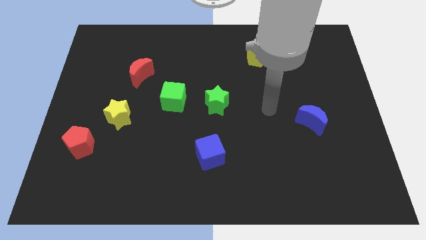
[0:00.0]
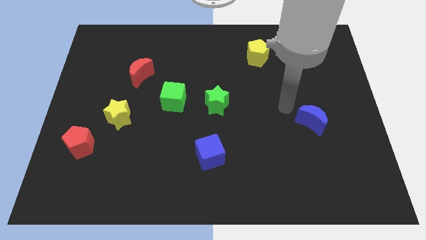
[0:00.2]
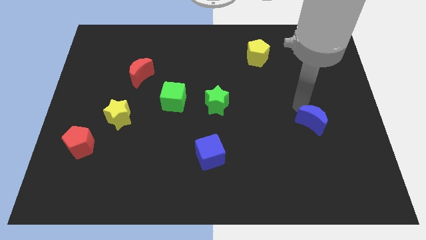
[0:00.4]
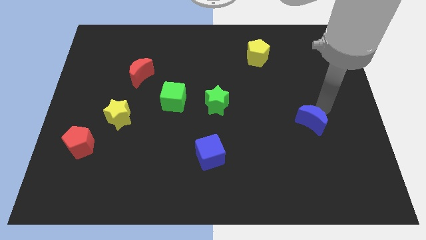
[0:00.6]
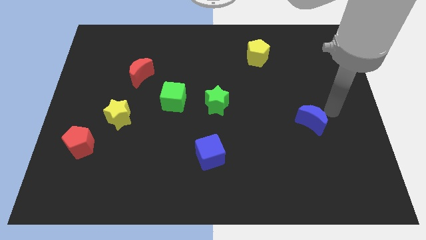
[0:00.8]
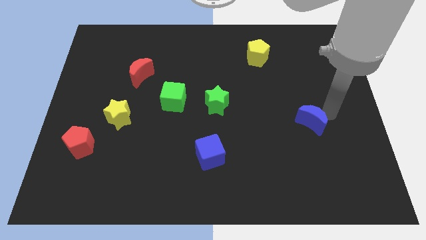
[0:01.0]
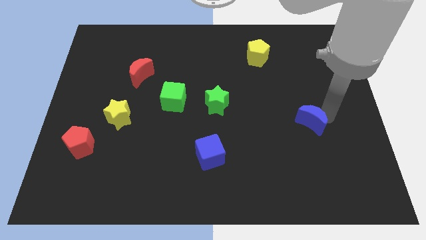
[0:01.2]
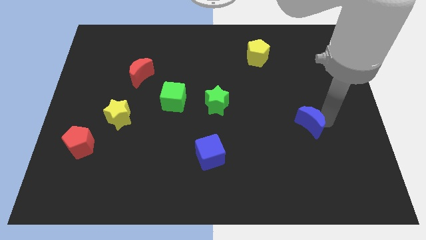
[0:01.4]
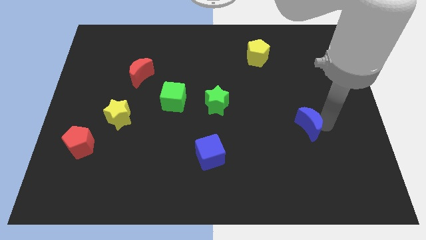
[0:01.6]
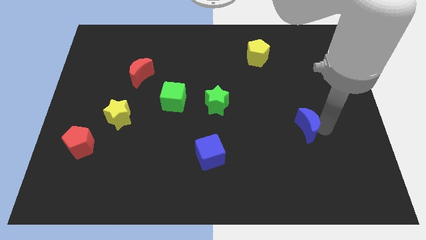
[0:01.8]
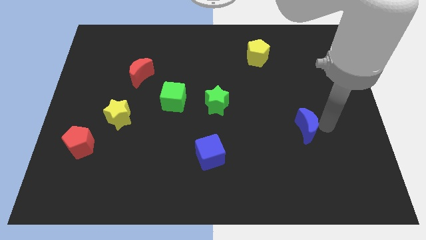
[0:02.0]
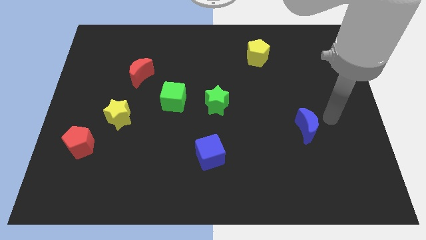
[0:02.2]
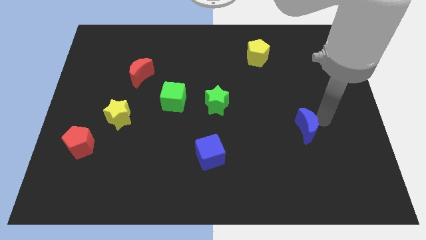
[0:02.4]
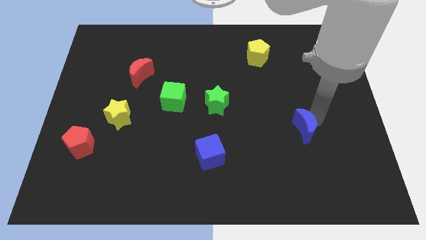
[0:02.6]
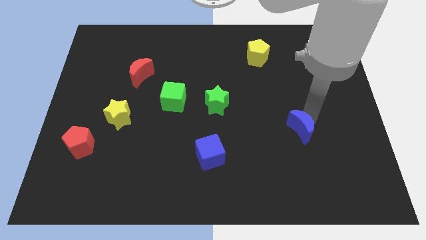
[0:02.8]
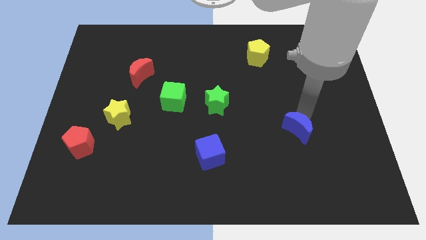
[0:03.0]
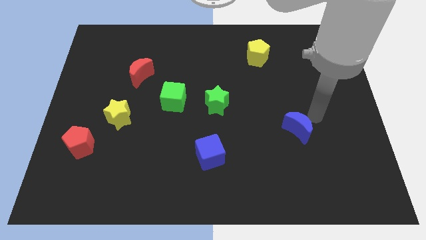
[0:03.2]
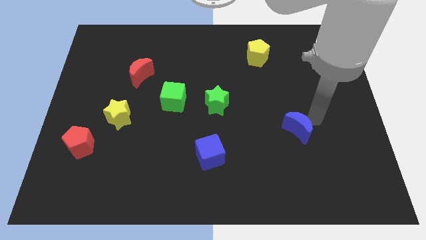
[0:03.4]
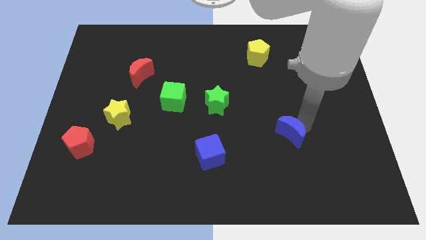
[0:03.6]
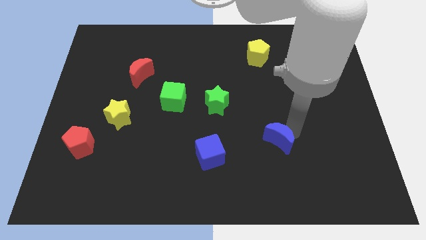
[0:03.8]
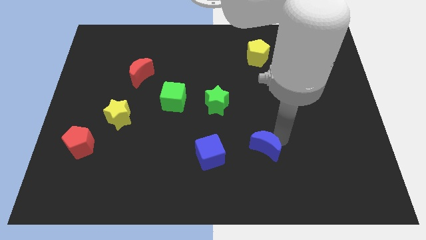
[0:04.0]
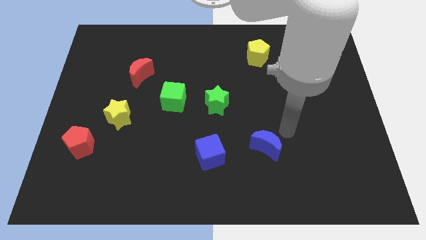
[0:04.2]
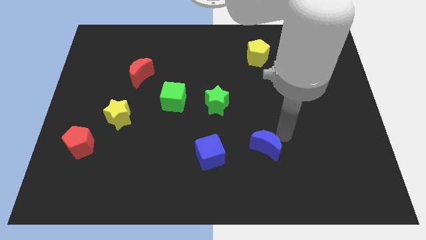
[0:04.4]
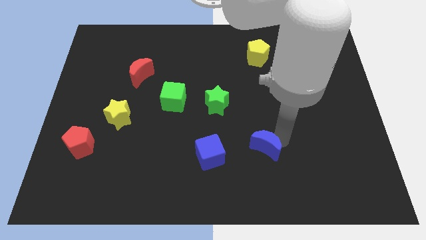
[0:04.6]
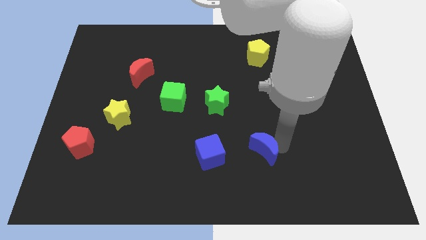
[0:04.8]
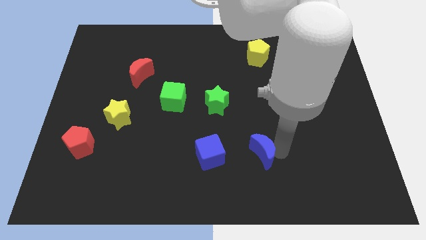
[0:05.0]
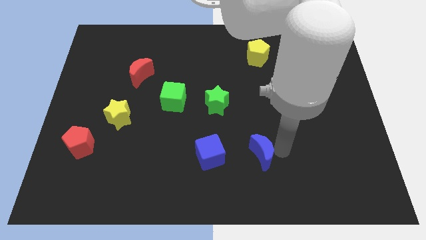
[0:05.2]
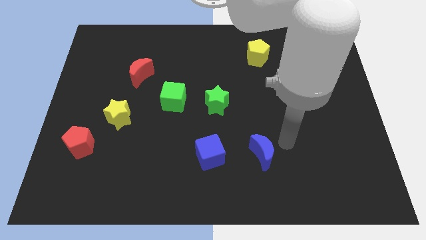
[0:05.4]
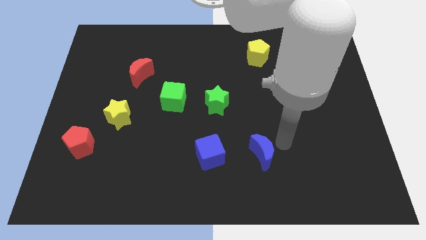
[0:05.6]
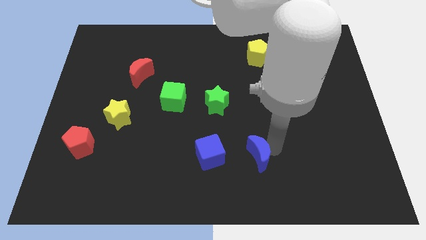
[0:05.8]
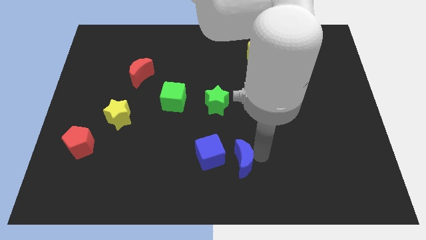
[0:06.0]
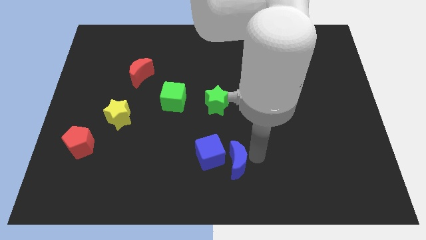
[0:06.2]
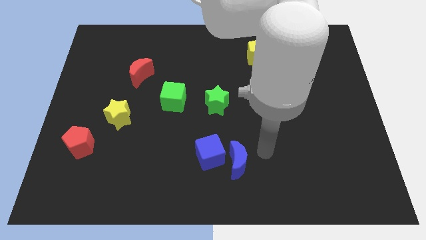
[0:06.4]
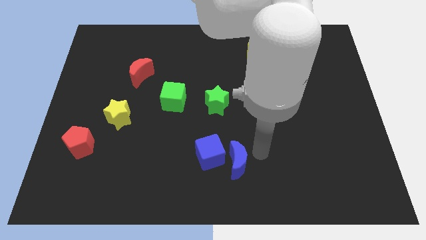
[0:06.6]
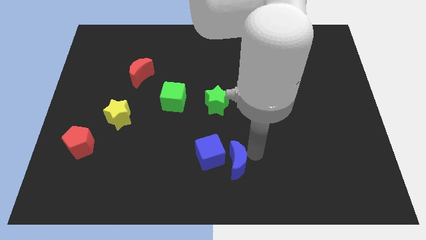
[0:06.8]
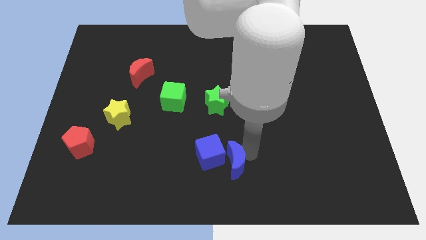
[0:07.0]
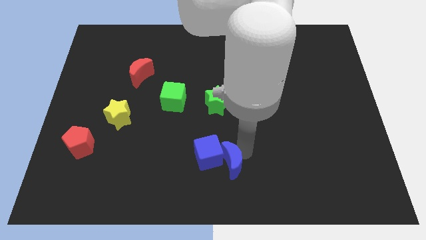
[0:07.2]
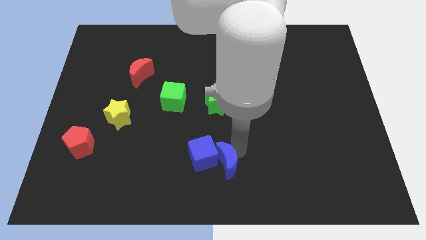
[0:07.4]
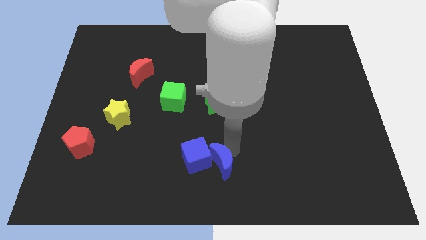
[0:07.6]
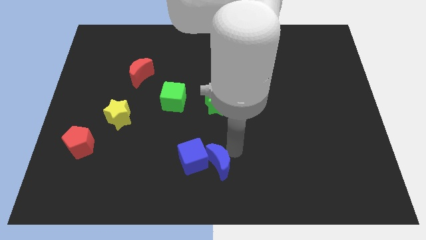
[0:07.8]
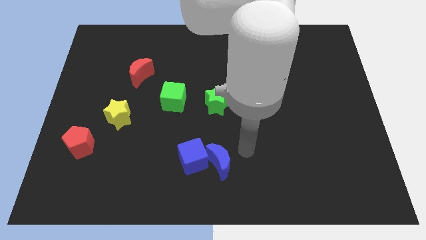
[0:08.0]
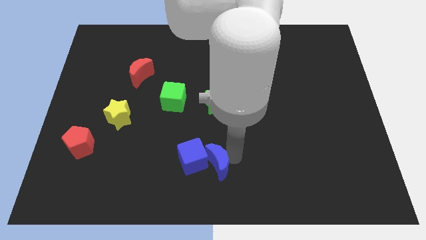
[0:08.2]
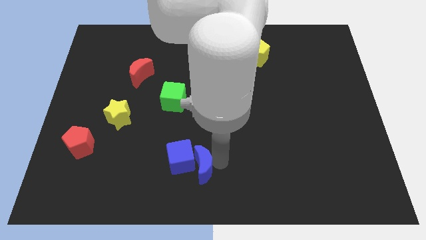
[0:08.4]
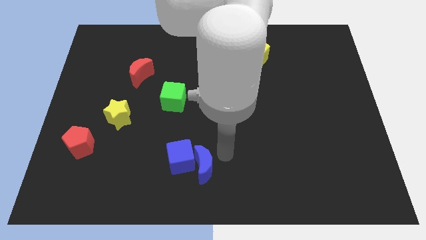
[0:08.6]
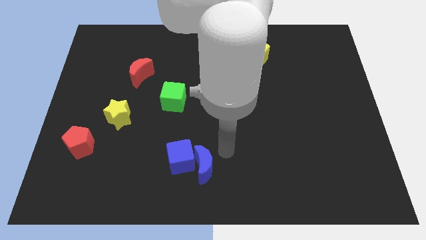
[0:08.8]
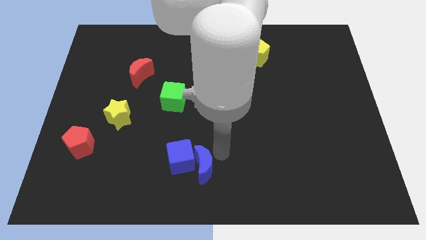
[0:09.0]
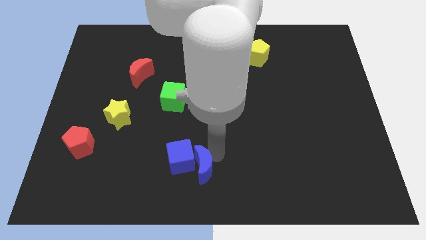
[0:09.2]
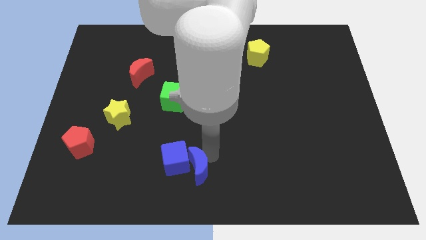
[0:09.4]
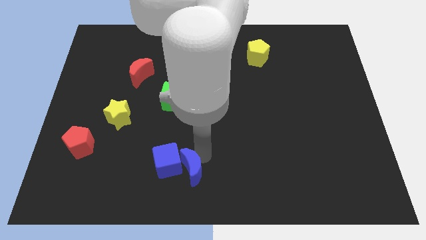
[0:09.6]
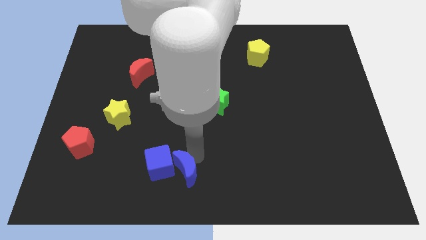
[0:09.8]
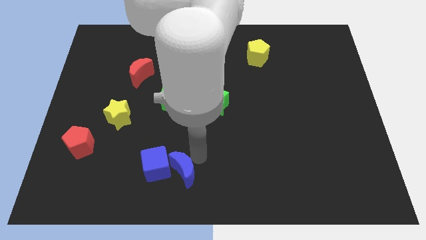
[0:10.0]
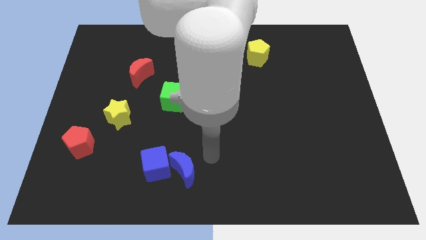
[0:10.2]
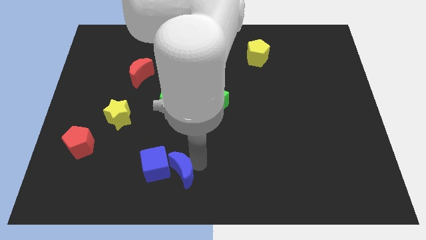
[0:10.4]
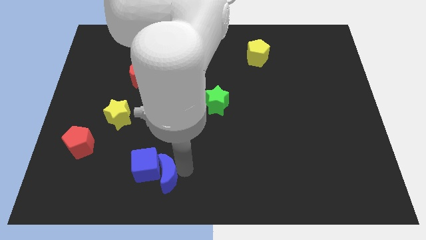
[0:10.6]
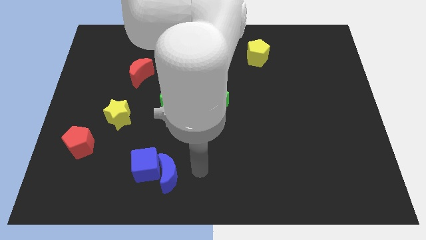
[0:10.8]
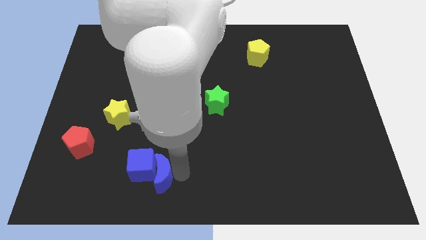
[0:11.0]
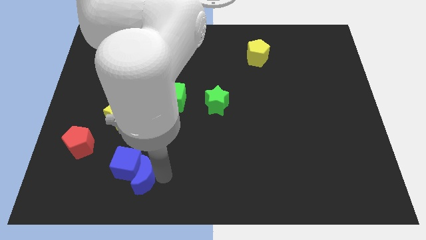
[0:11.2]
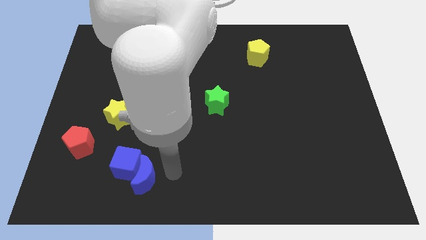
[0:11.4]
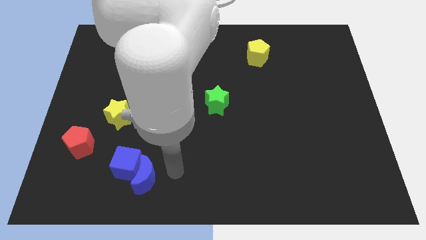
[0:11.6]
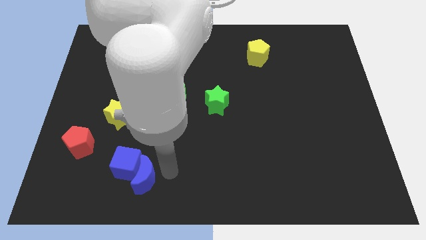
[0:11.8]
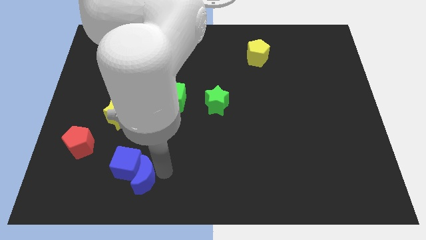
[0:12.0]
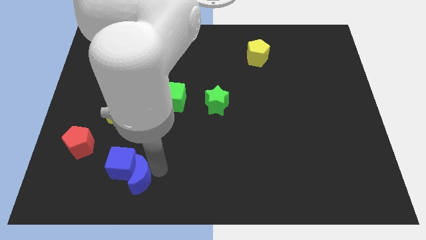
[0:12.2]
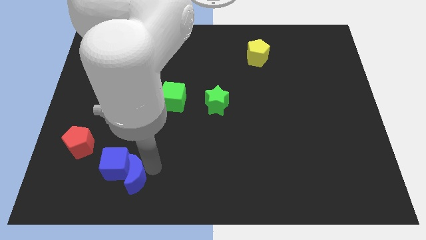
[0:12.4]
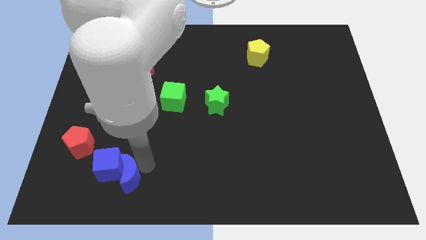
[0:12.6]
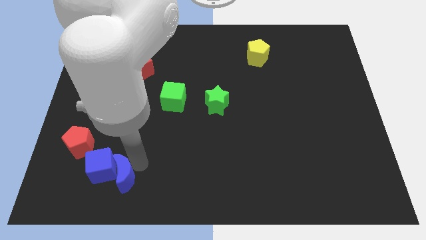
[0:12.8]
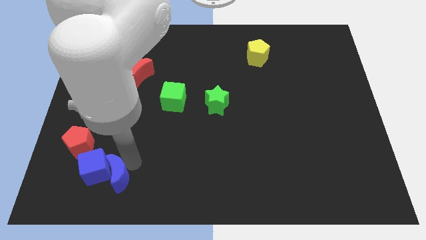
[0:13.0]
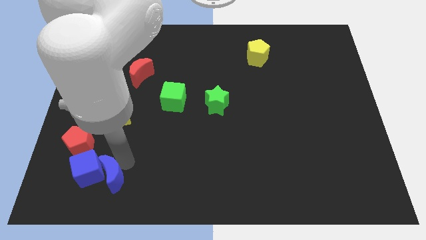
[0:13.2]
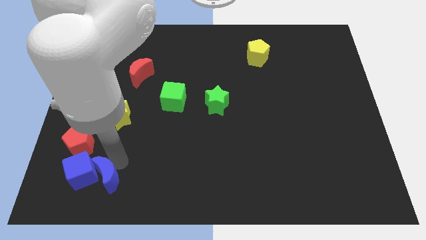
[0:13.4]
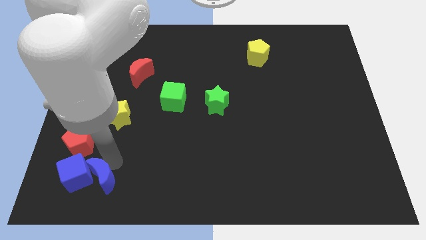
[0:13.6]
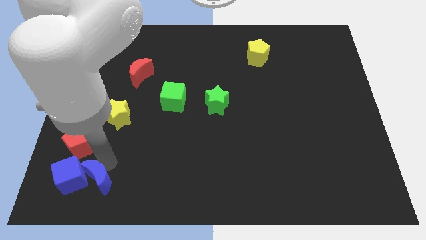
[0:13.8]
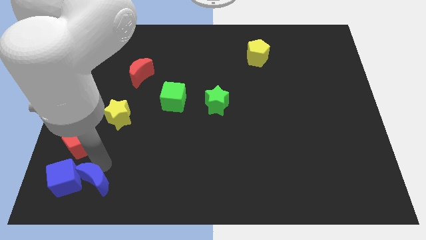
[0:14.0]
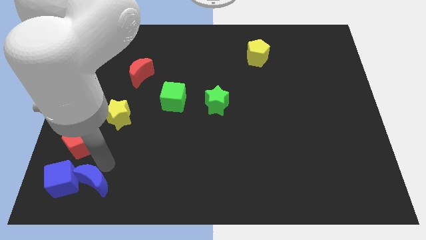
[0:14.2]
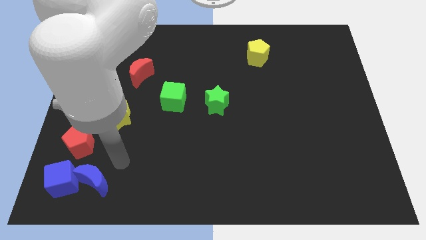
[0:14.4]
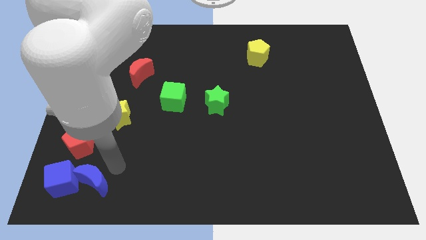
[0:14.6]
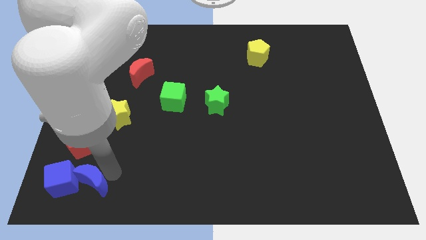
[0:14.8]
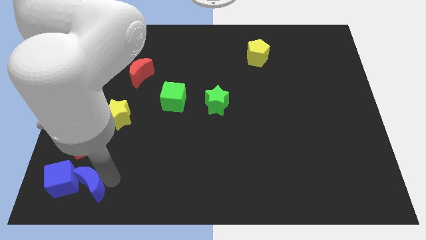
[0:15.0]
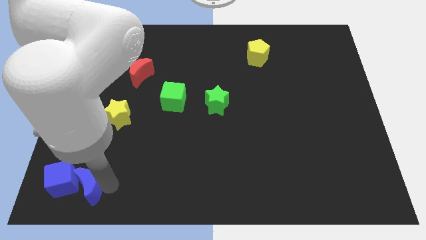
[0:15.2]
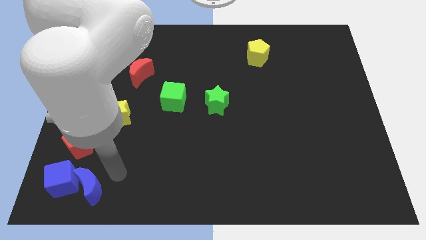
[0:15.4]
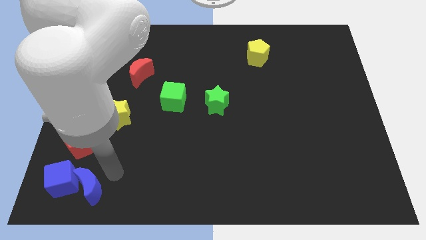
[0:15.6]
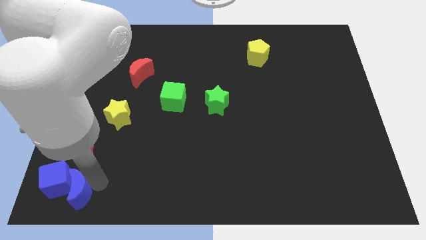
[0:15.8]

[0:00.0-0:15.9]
move the blue moon to the bottom left corner

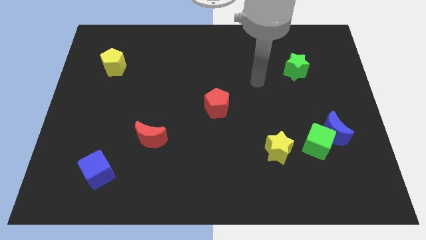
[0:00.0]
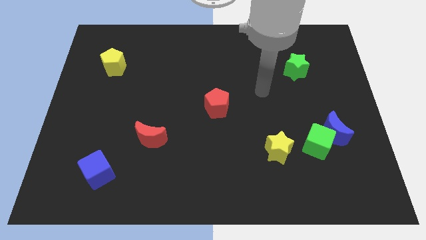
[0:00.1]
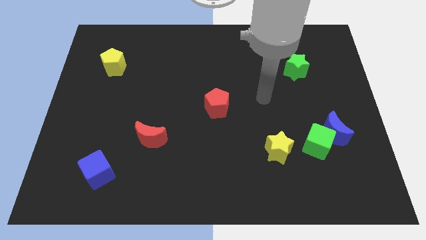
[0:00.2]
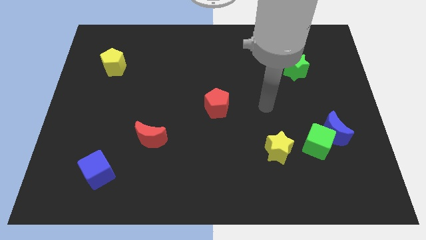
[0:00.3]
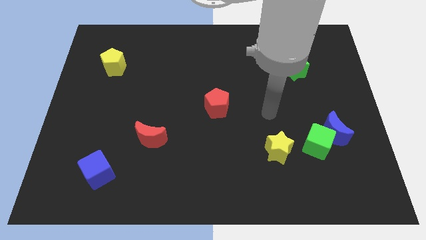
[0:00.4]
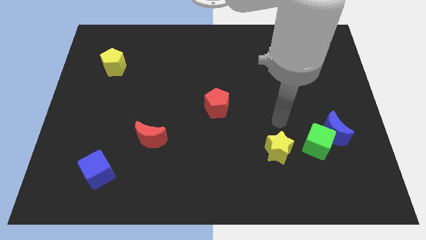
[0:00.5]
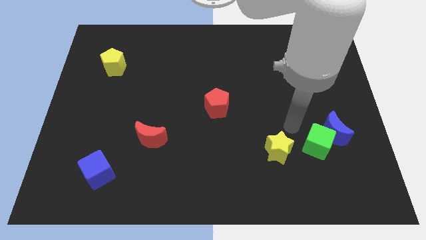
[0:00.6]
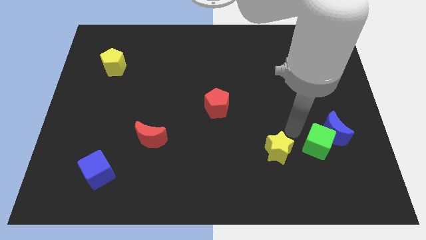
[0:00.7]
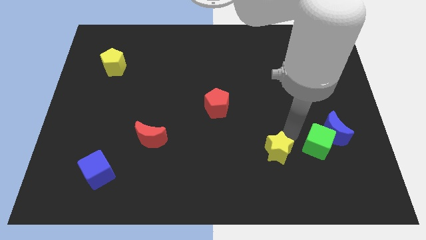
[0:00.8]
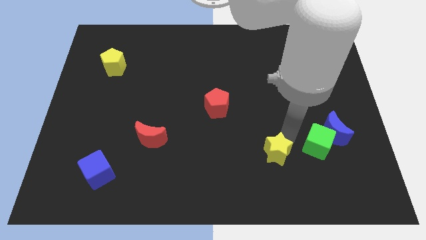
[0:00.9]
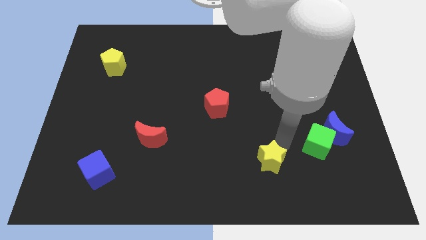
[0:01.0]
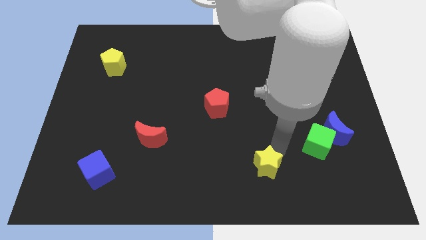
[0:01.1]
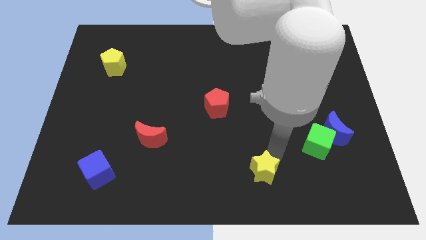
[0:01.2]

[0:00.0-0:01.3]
put the yellow star to the bottom
